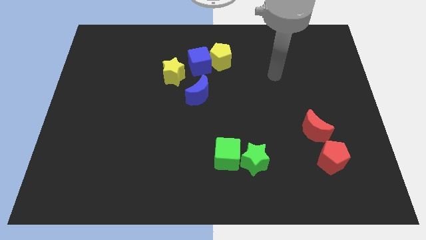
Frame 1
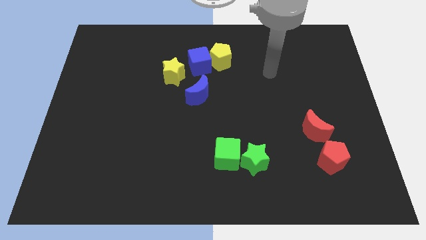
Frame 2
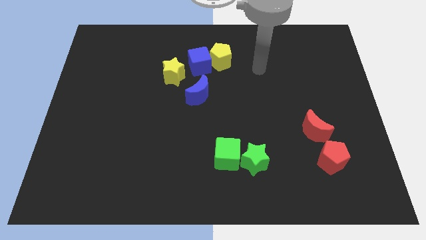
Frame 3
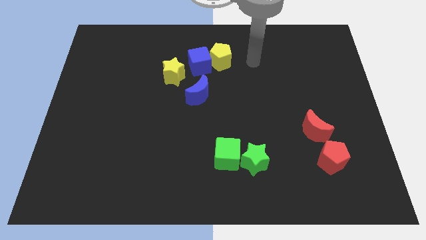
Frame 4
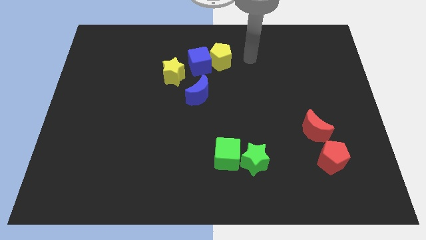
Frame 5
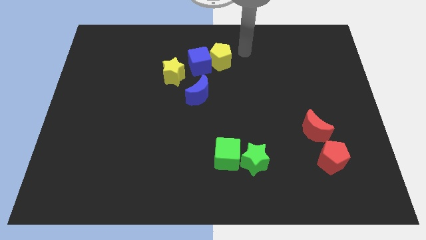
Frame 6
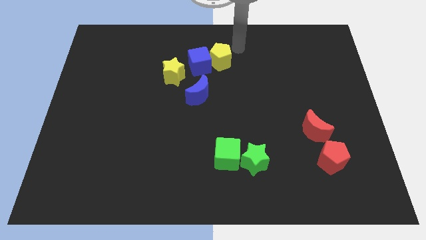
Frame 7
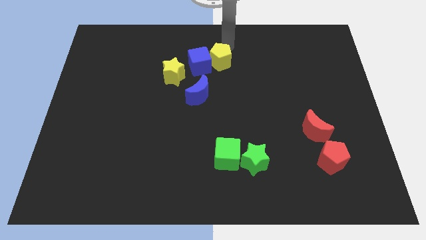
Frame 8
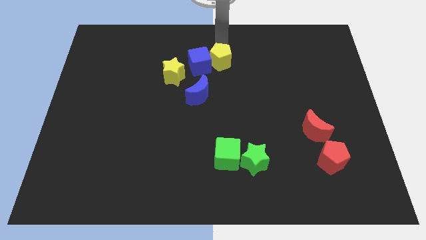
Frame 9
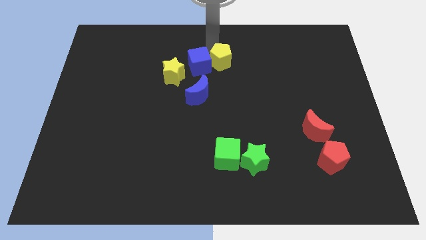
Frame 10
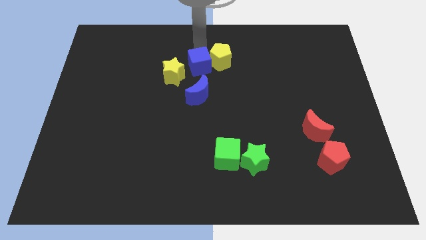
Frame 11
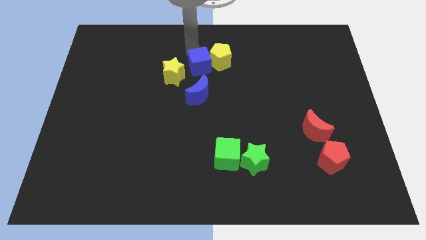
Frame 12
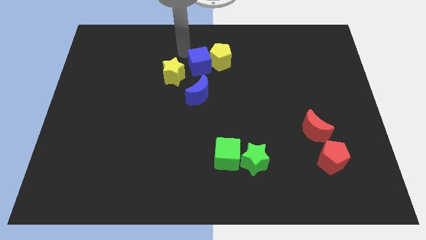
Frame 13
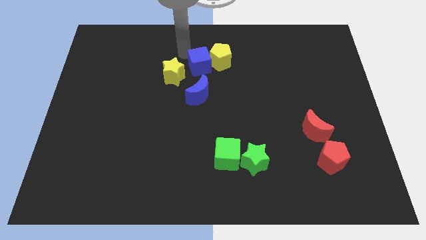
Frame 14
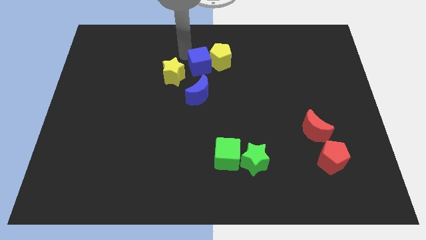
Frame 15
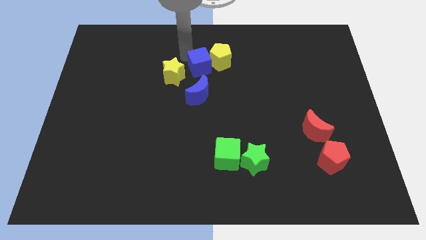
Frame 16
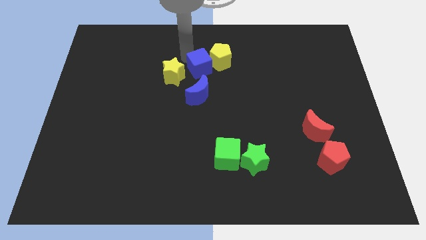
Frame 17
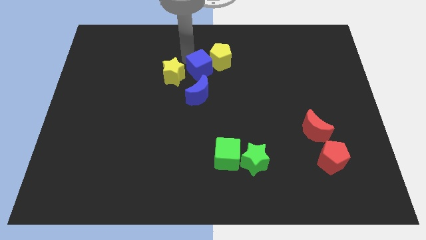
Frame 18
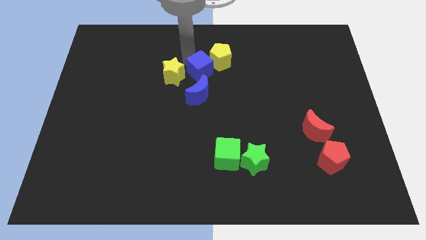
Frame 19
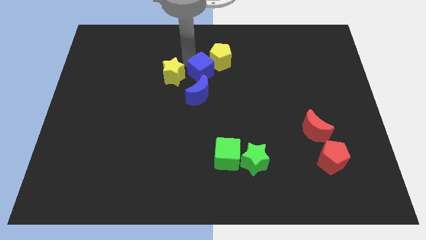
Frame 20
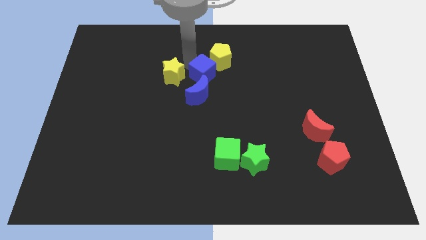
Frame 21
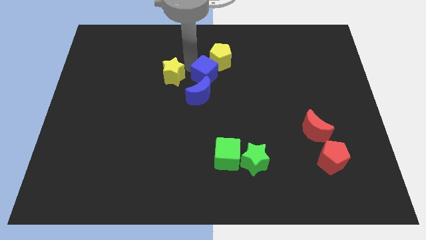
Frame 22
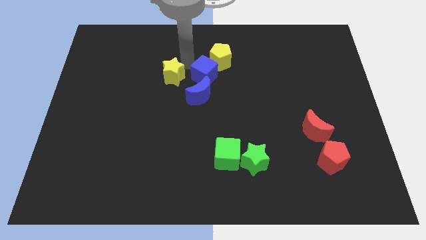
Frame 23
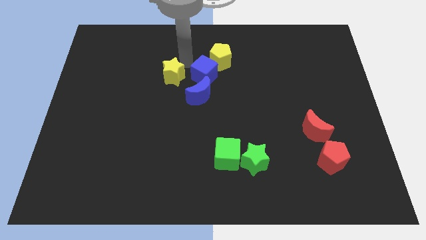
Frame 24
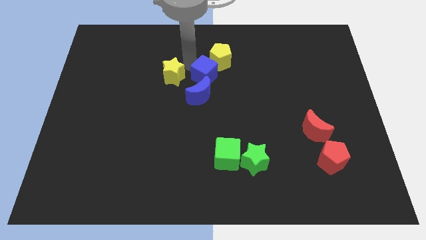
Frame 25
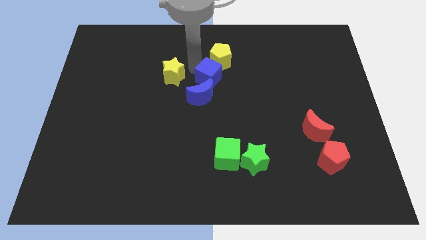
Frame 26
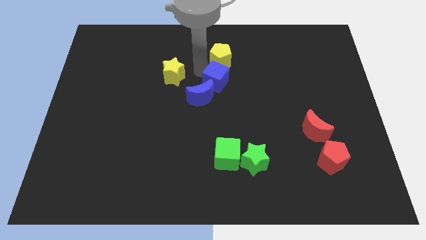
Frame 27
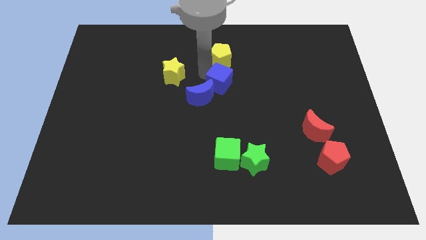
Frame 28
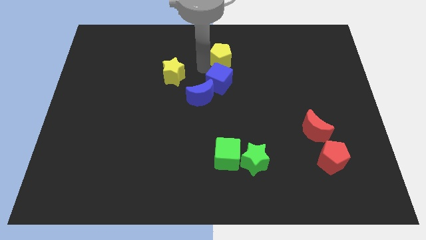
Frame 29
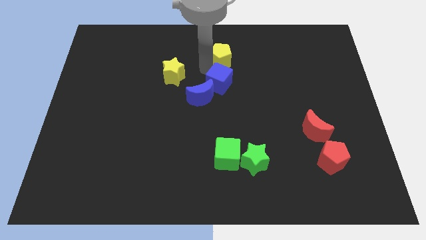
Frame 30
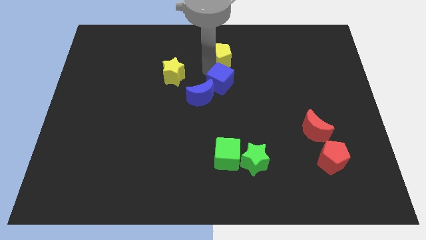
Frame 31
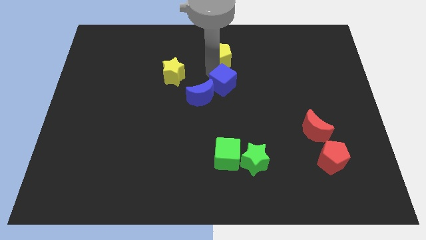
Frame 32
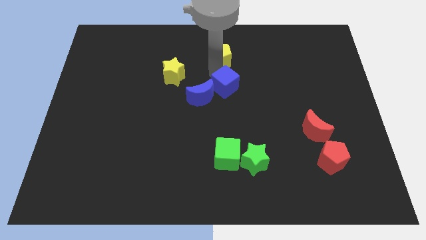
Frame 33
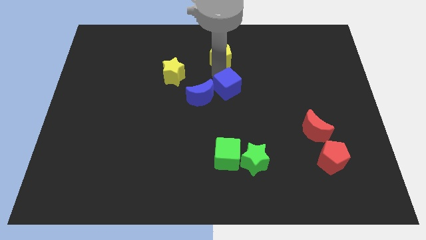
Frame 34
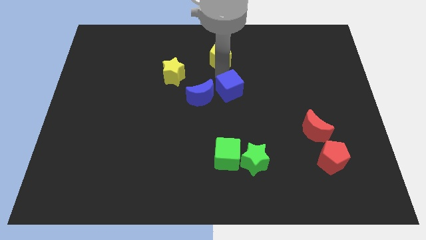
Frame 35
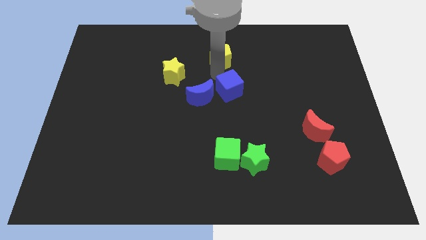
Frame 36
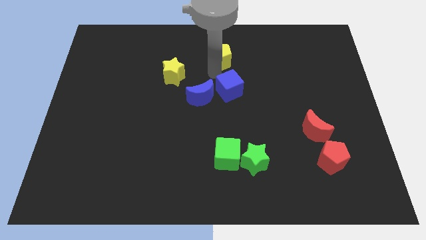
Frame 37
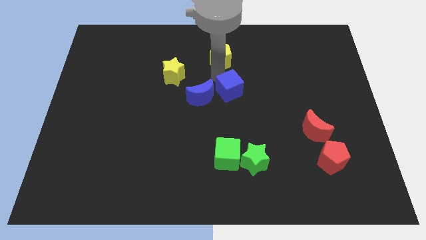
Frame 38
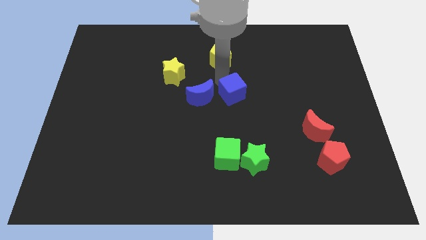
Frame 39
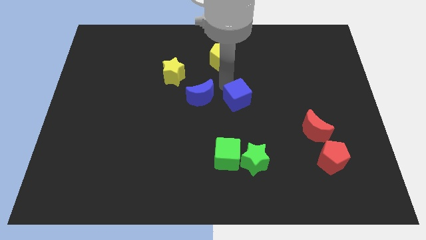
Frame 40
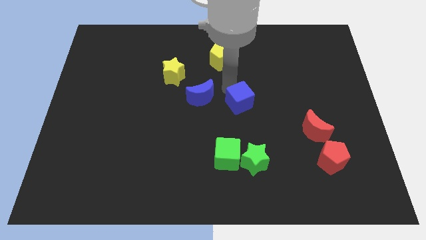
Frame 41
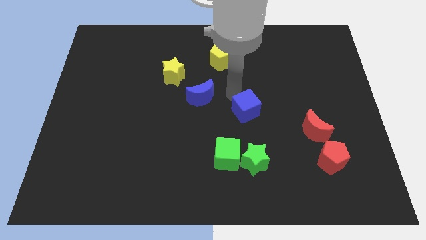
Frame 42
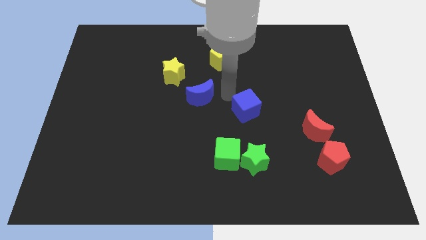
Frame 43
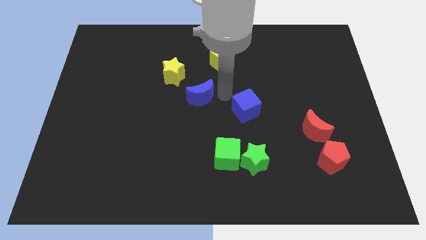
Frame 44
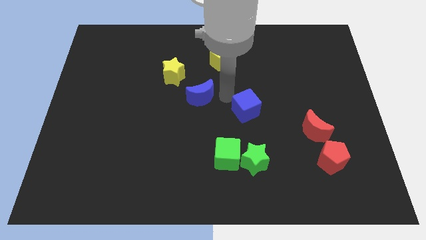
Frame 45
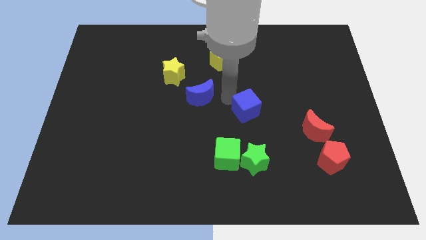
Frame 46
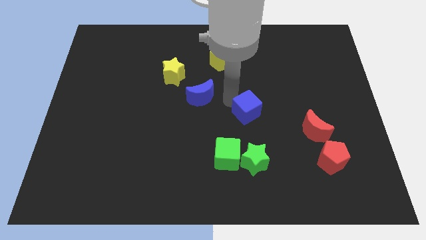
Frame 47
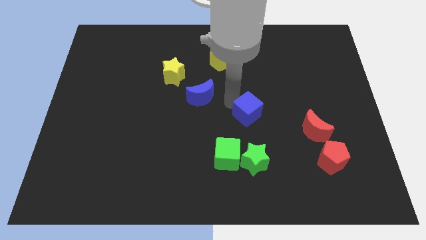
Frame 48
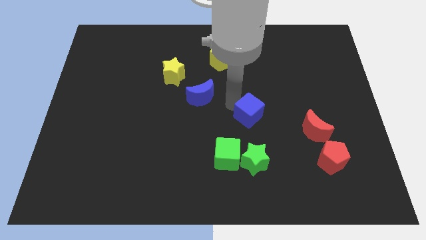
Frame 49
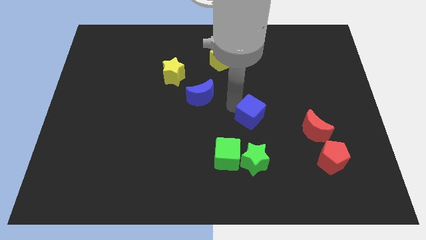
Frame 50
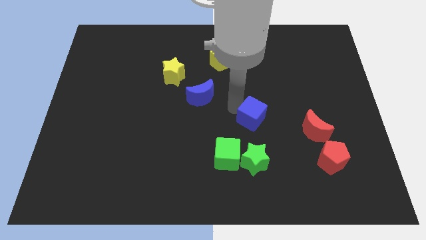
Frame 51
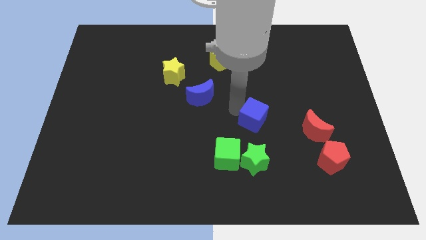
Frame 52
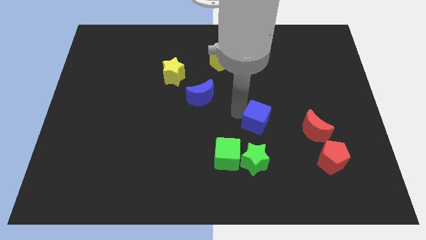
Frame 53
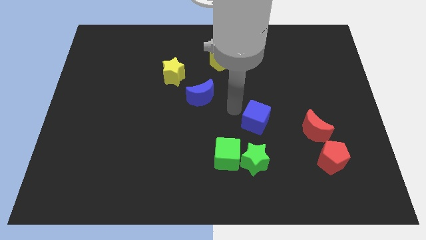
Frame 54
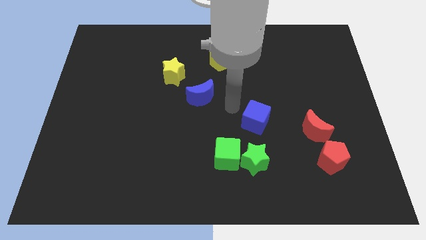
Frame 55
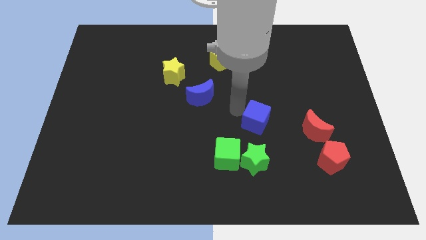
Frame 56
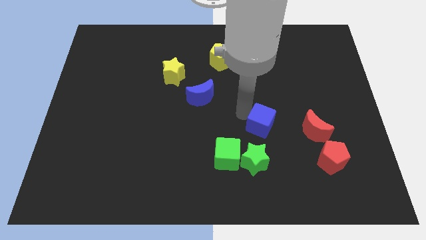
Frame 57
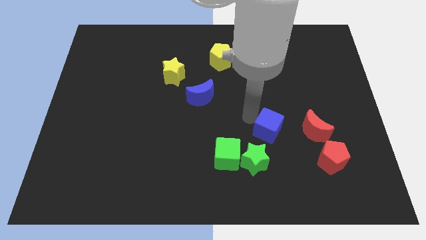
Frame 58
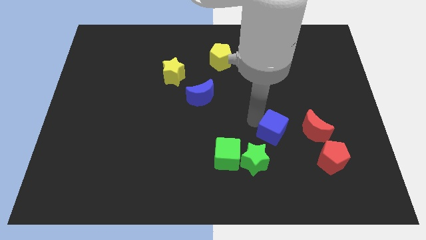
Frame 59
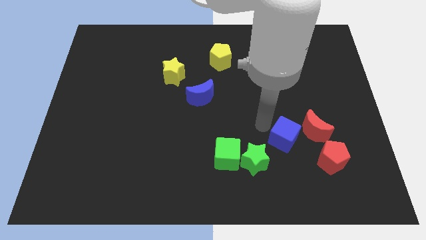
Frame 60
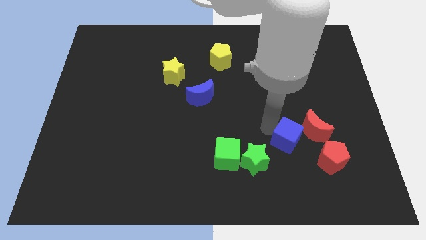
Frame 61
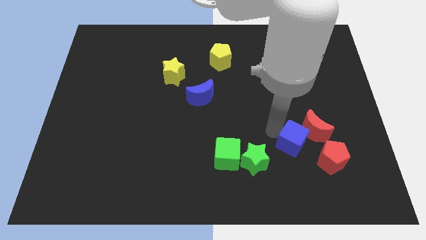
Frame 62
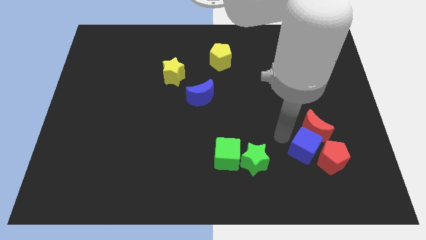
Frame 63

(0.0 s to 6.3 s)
put the blue cube to the red pentagon

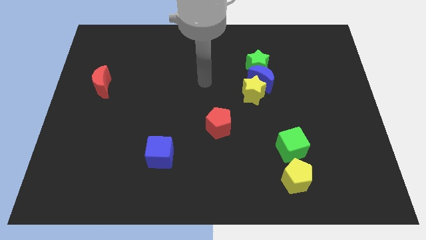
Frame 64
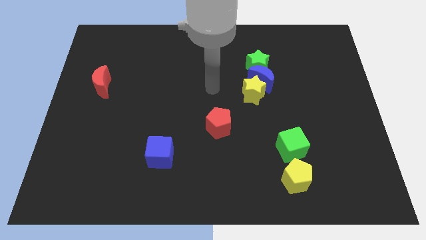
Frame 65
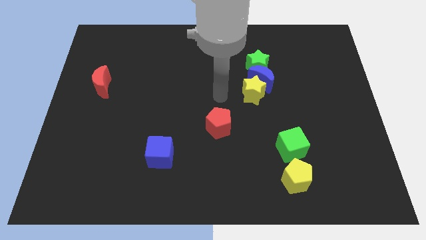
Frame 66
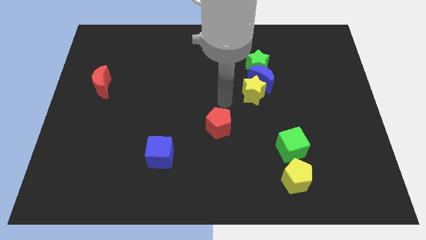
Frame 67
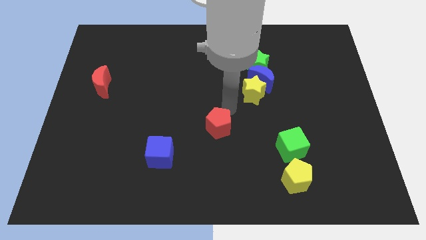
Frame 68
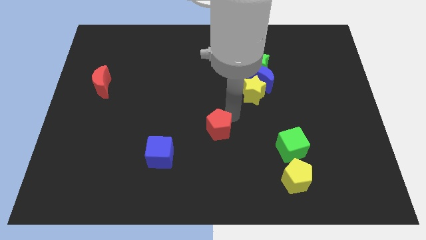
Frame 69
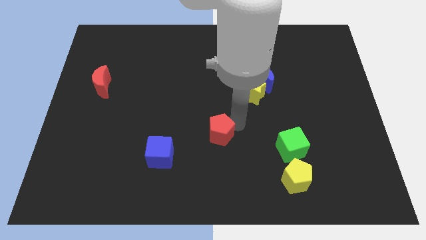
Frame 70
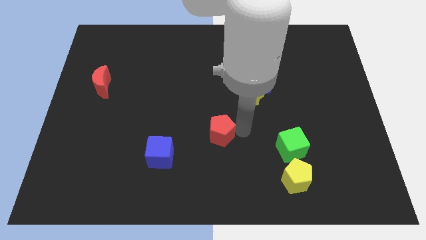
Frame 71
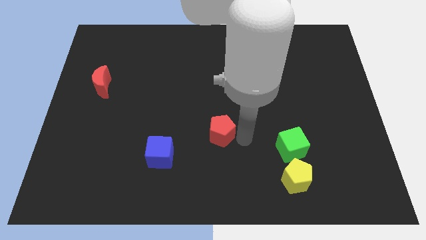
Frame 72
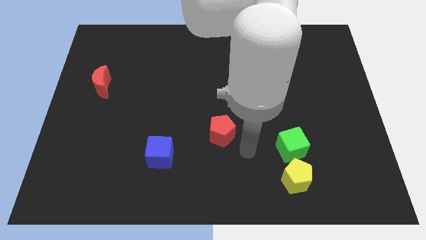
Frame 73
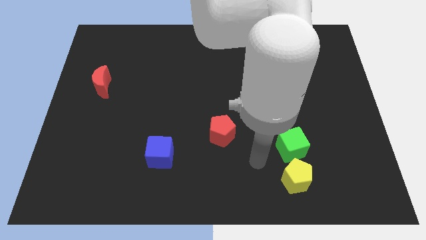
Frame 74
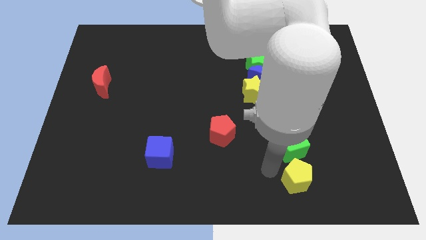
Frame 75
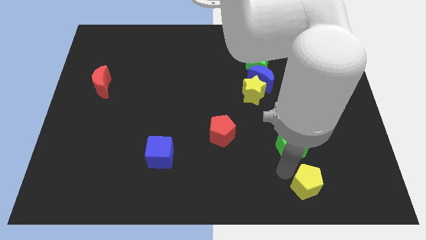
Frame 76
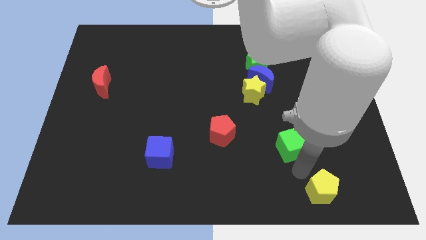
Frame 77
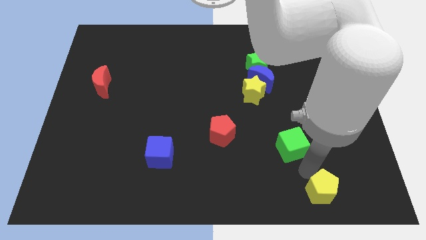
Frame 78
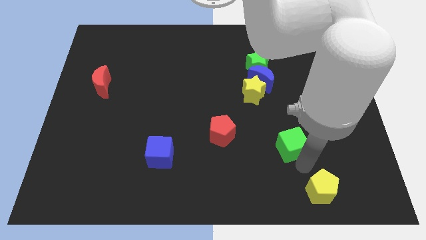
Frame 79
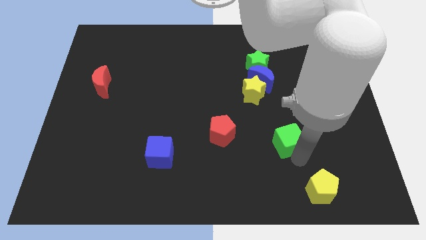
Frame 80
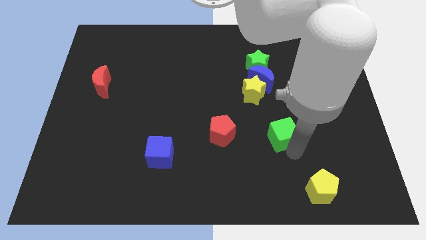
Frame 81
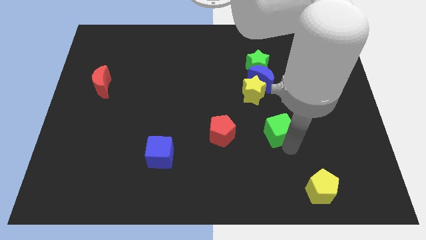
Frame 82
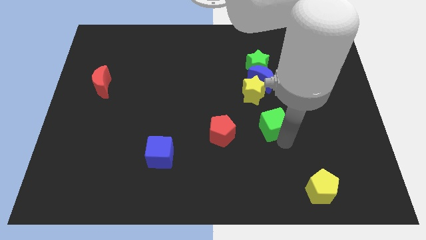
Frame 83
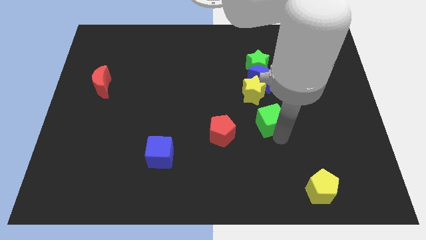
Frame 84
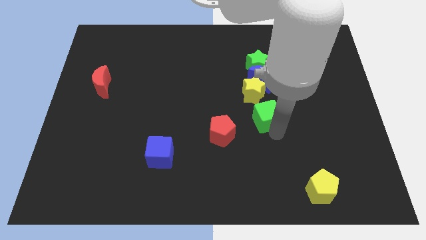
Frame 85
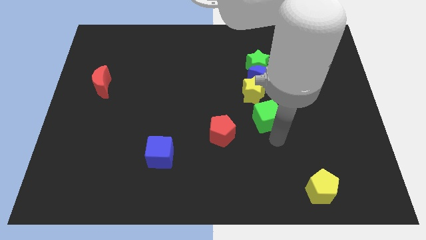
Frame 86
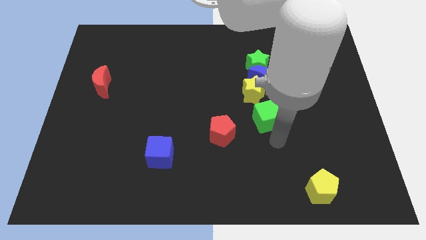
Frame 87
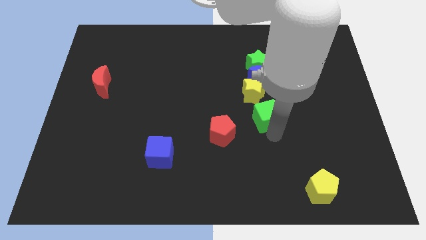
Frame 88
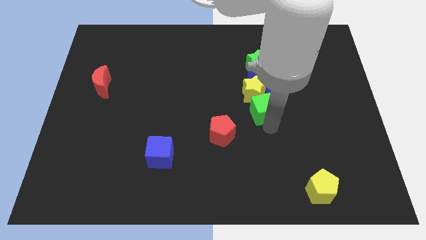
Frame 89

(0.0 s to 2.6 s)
move the green cube next to the yellow star
